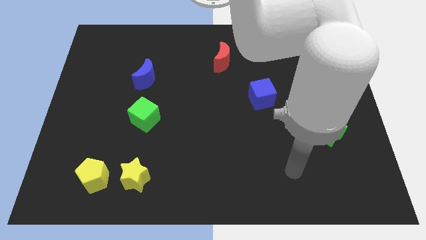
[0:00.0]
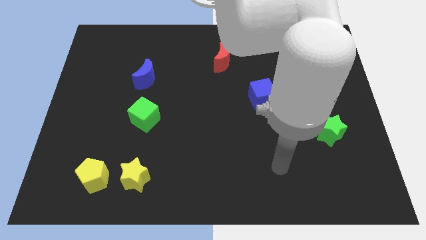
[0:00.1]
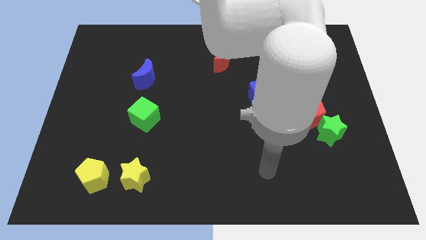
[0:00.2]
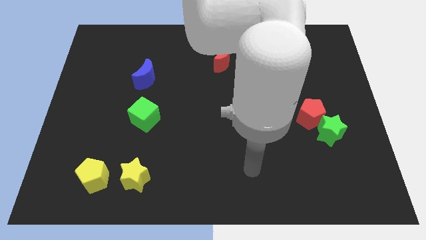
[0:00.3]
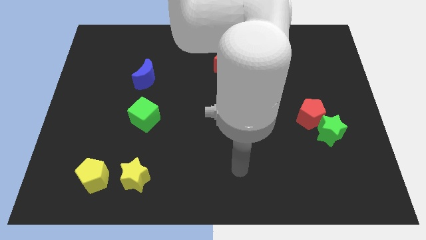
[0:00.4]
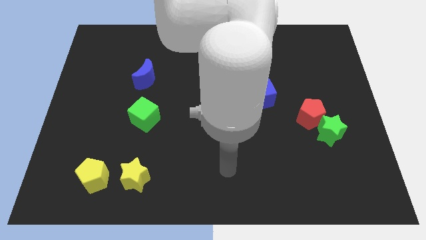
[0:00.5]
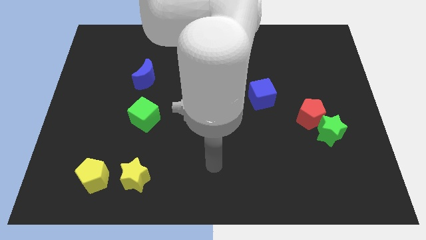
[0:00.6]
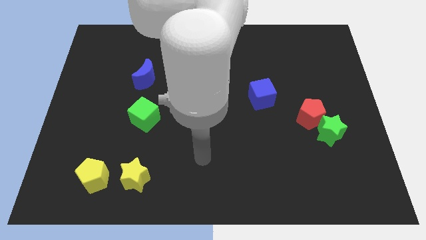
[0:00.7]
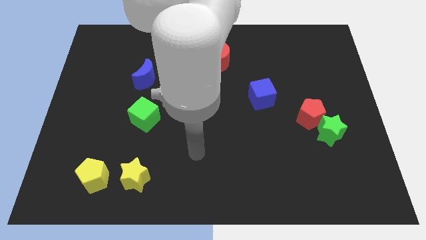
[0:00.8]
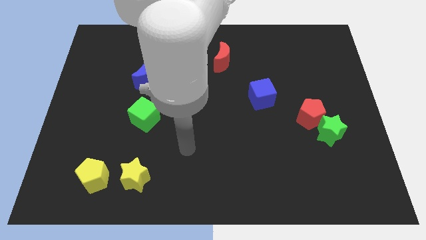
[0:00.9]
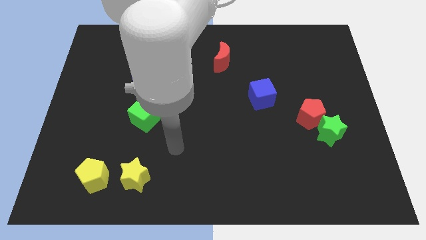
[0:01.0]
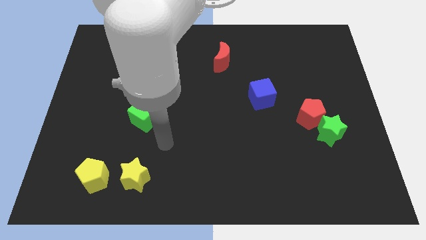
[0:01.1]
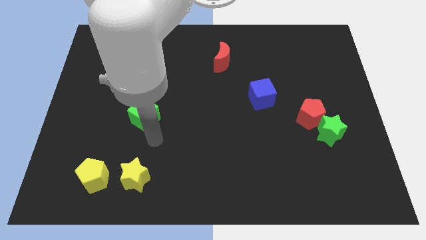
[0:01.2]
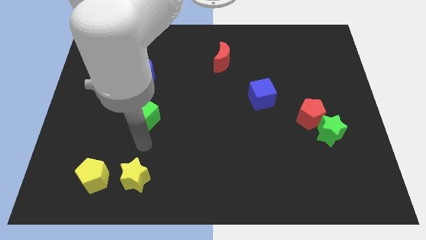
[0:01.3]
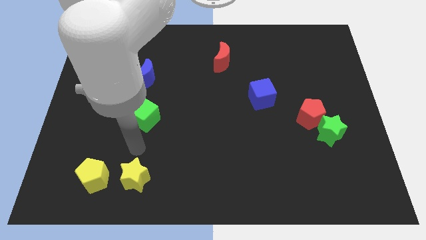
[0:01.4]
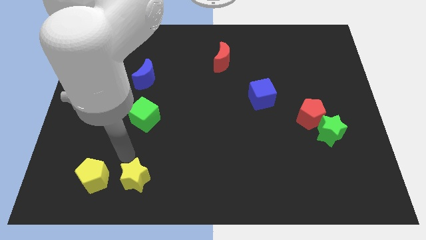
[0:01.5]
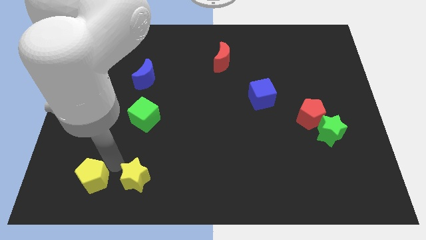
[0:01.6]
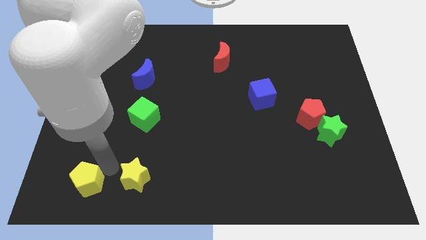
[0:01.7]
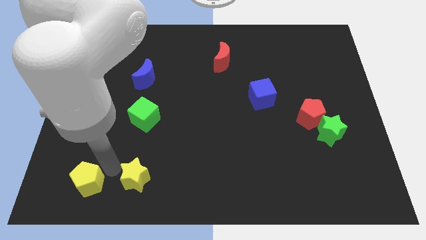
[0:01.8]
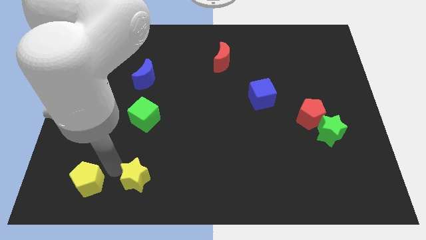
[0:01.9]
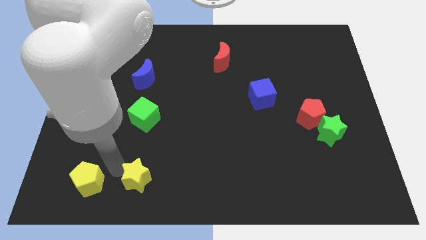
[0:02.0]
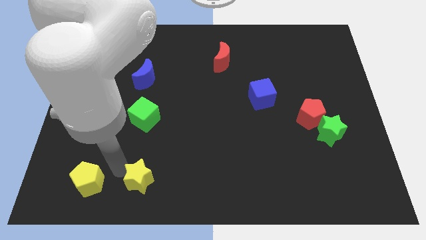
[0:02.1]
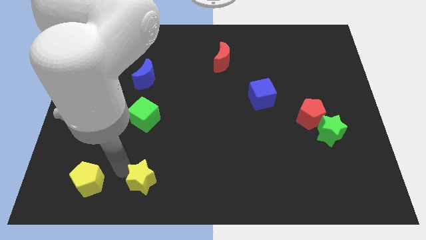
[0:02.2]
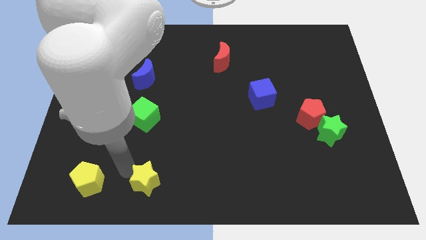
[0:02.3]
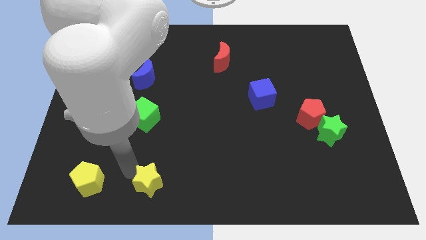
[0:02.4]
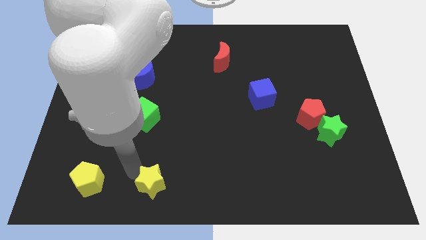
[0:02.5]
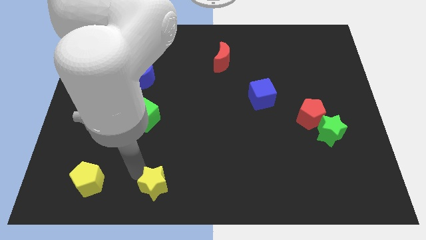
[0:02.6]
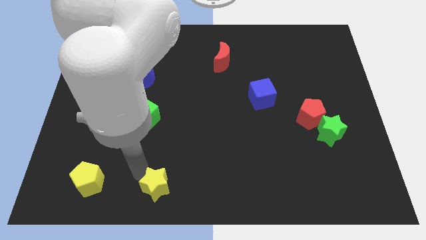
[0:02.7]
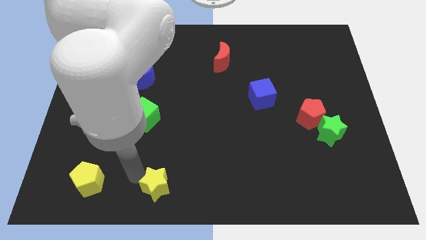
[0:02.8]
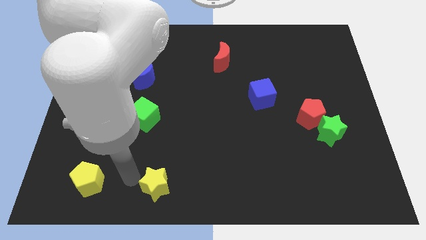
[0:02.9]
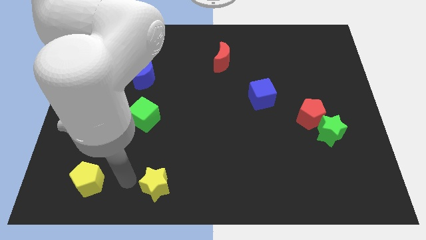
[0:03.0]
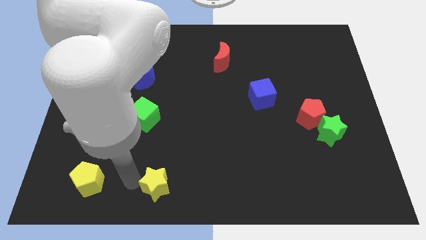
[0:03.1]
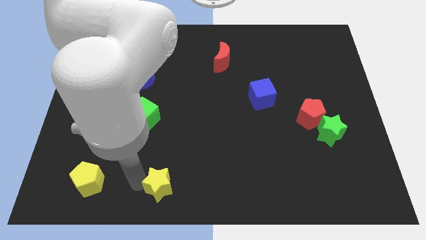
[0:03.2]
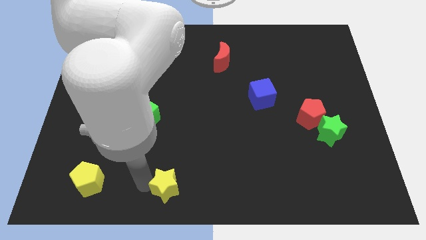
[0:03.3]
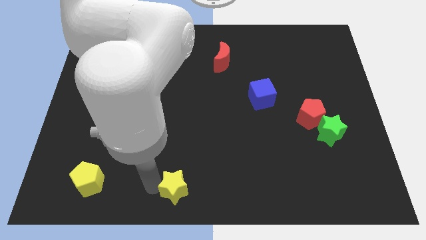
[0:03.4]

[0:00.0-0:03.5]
move the yellow star right a little bit

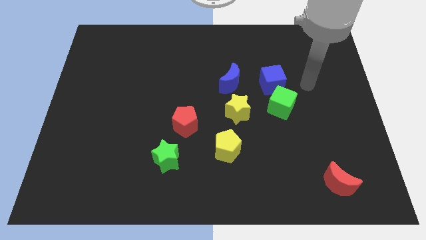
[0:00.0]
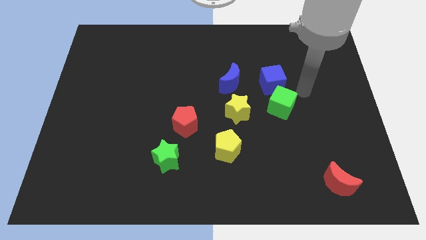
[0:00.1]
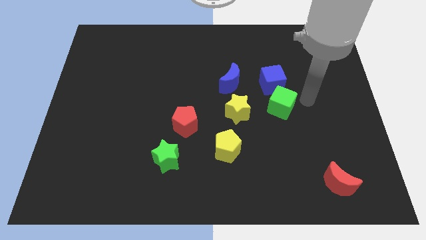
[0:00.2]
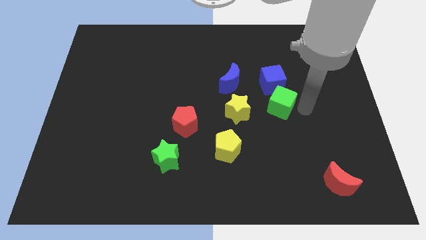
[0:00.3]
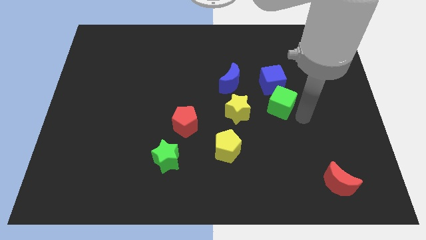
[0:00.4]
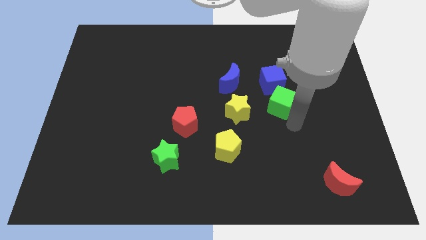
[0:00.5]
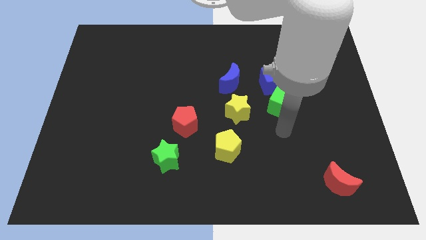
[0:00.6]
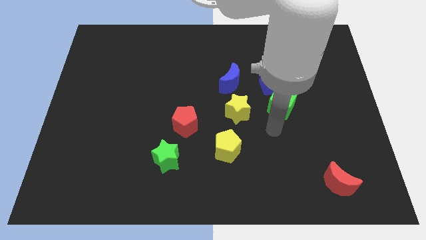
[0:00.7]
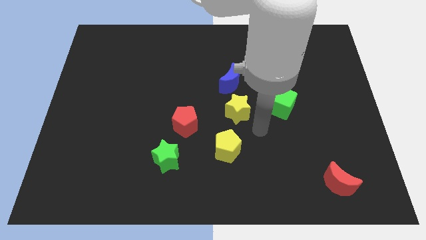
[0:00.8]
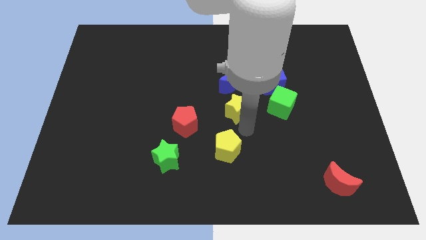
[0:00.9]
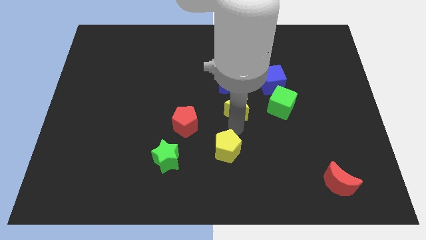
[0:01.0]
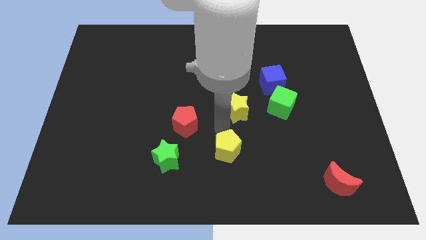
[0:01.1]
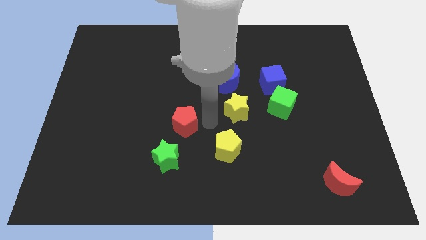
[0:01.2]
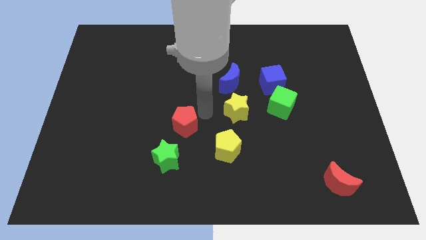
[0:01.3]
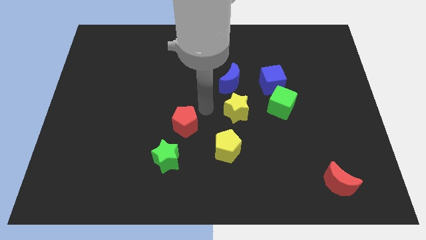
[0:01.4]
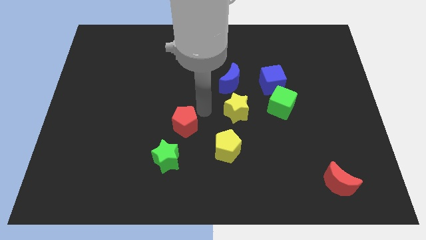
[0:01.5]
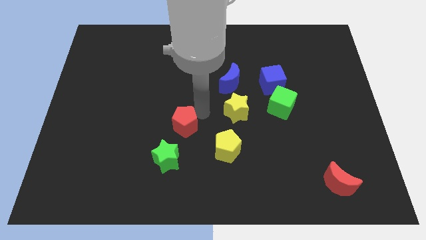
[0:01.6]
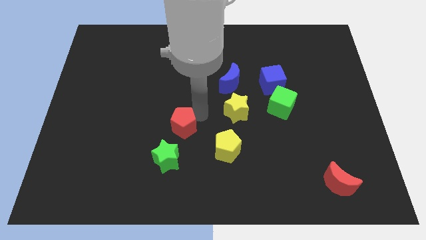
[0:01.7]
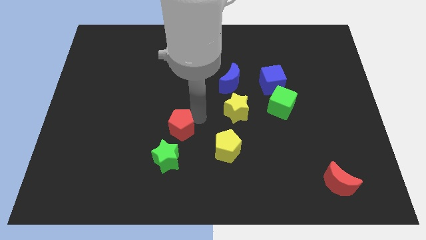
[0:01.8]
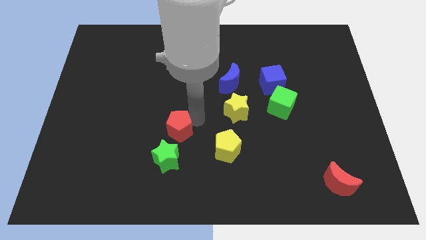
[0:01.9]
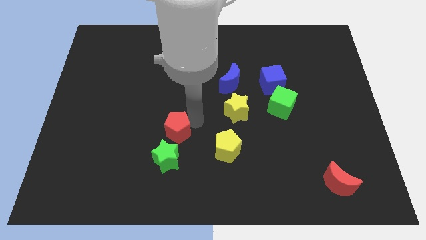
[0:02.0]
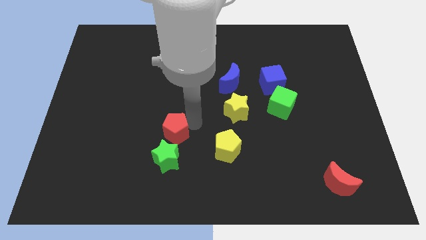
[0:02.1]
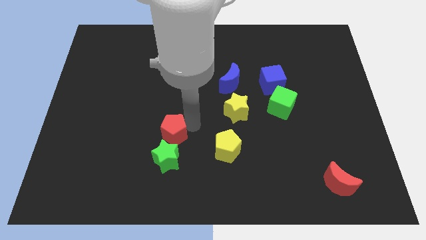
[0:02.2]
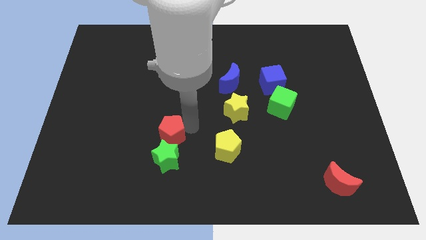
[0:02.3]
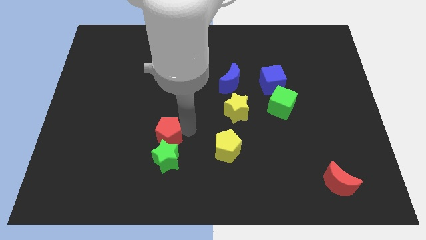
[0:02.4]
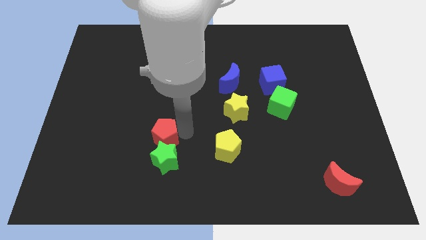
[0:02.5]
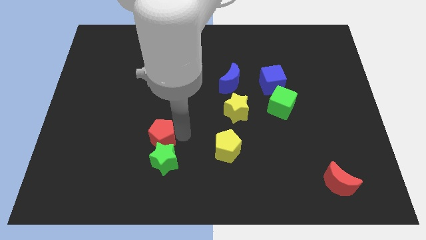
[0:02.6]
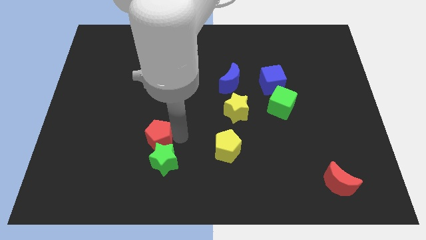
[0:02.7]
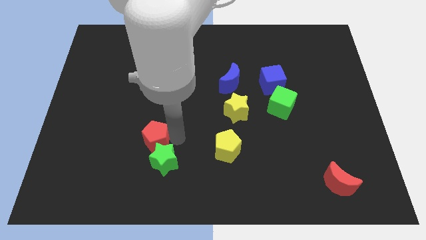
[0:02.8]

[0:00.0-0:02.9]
slightly push the red pentagon diagonally downwards and to the left

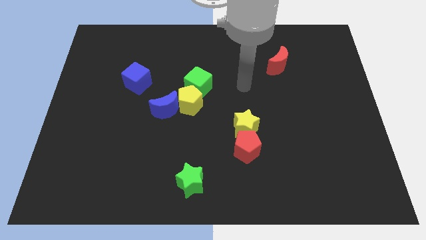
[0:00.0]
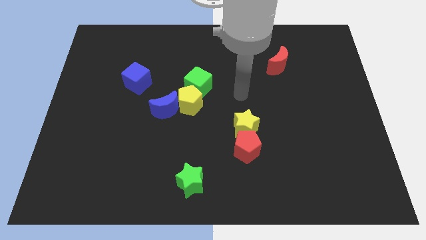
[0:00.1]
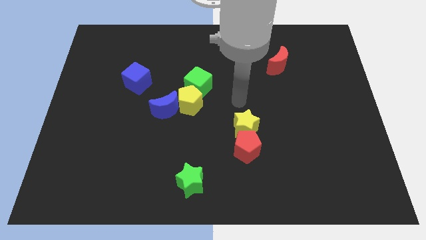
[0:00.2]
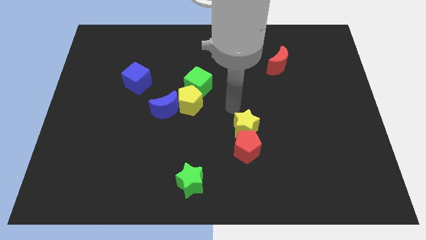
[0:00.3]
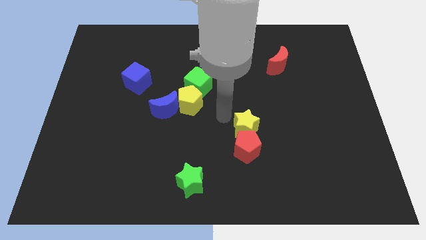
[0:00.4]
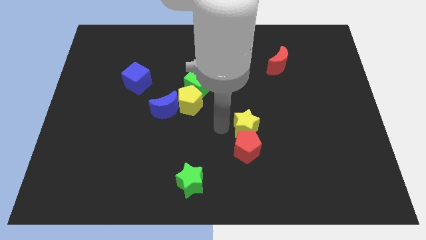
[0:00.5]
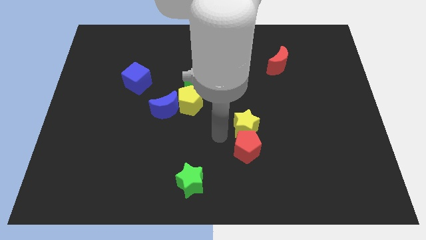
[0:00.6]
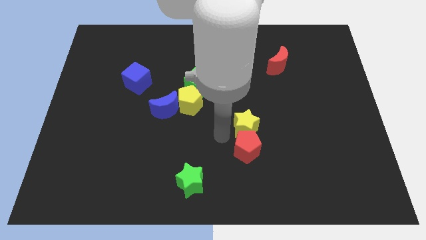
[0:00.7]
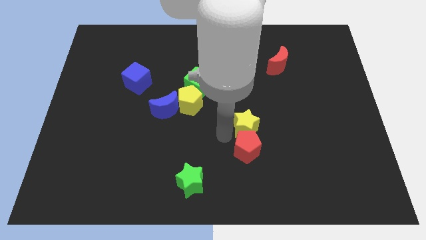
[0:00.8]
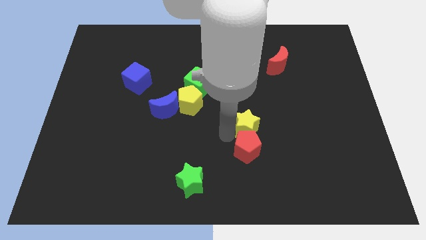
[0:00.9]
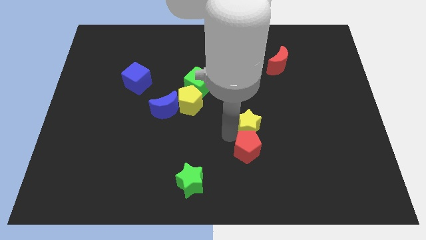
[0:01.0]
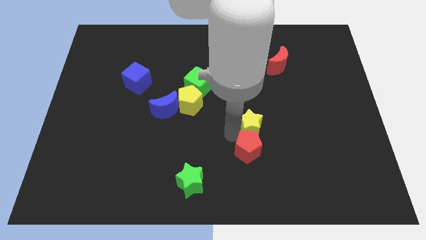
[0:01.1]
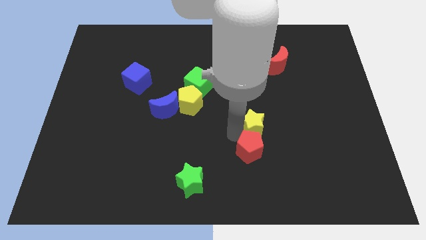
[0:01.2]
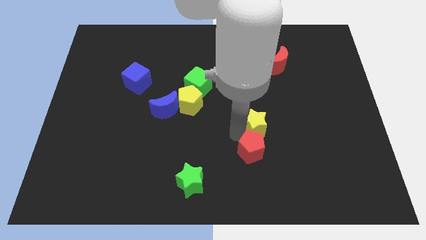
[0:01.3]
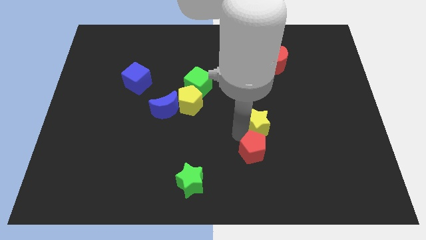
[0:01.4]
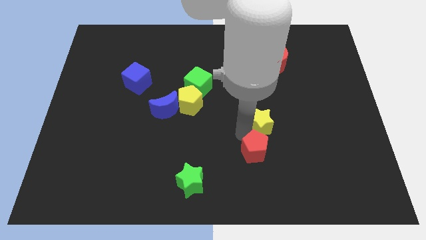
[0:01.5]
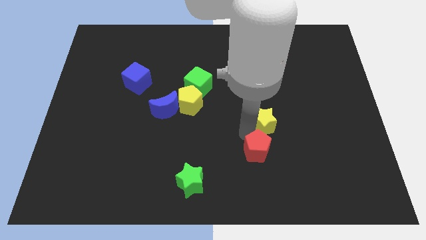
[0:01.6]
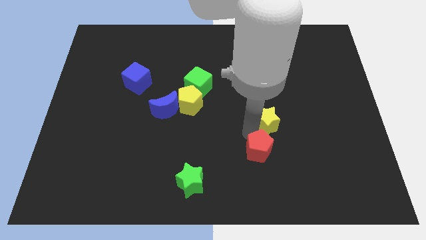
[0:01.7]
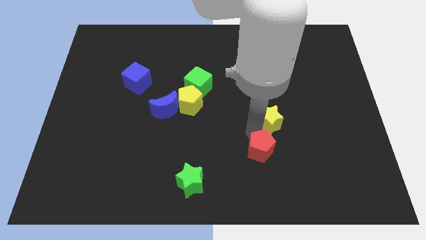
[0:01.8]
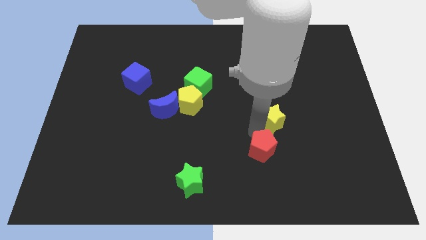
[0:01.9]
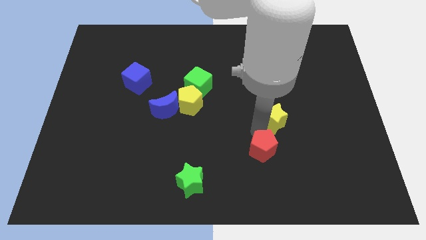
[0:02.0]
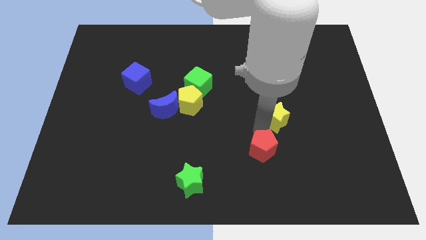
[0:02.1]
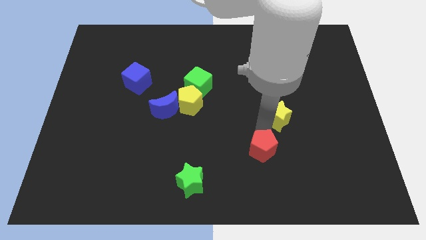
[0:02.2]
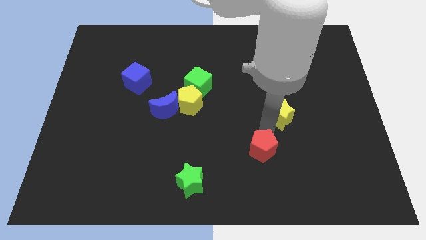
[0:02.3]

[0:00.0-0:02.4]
move the yellow star a bit diagonally up and right
